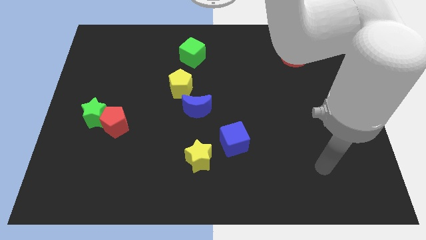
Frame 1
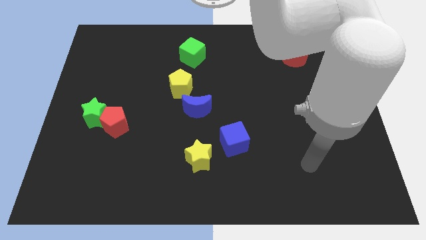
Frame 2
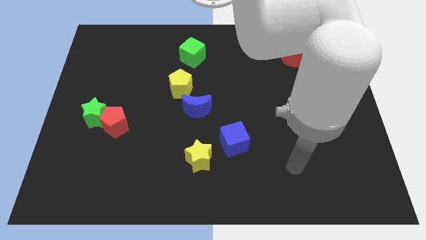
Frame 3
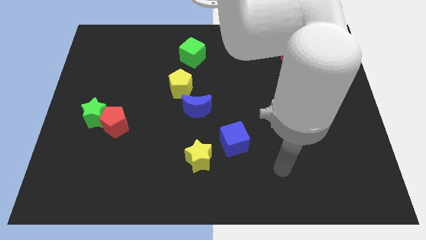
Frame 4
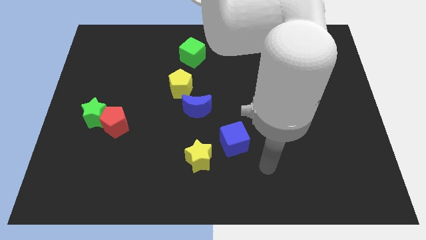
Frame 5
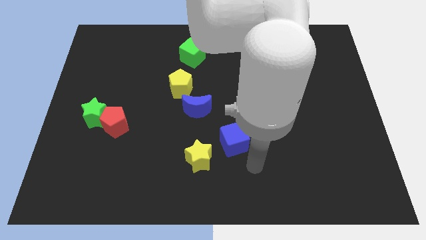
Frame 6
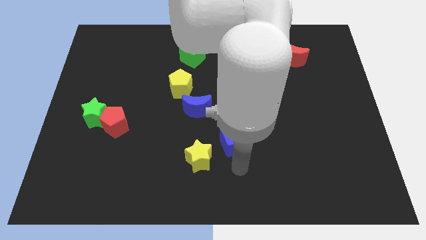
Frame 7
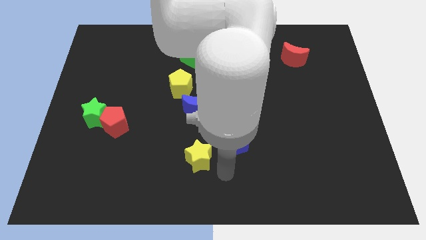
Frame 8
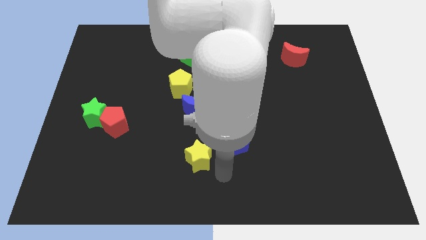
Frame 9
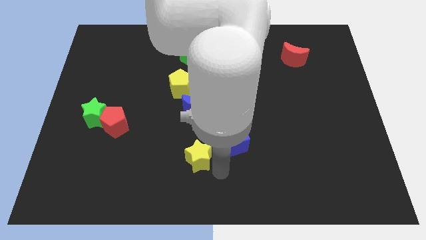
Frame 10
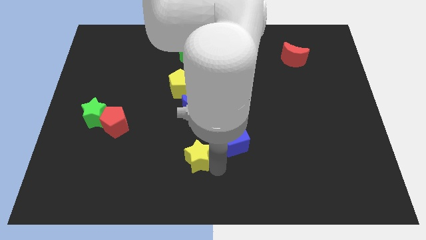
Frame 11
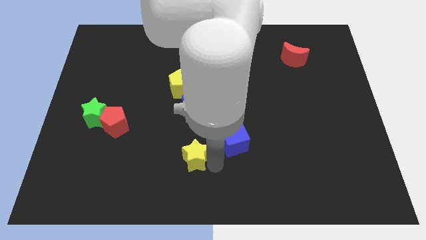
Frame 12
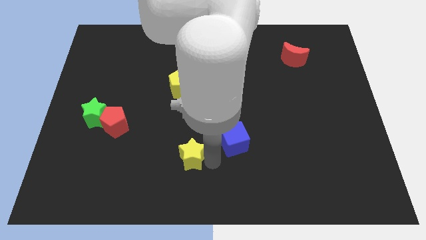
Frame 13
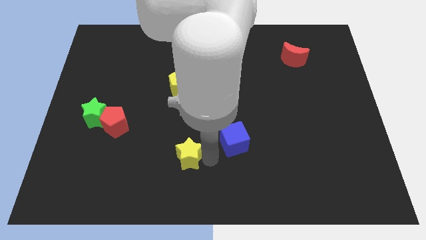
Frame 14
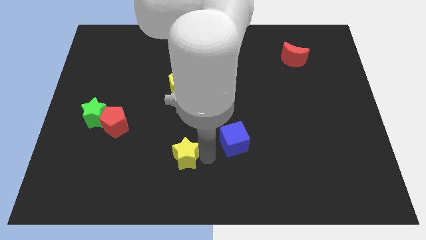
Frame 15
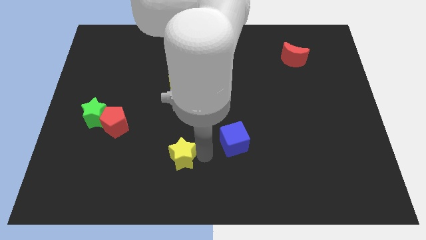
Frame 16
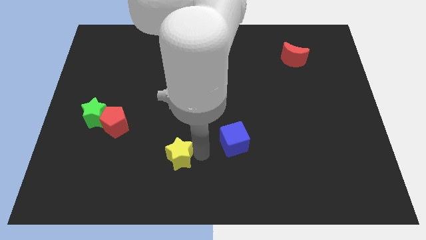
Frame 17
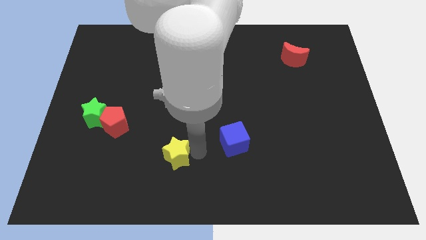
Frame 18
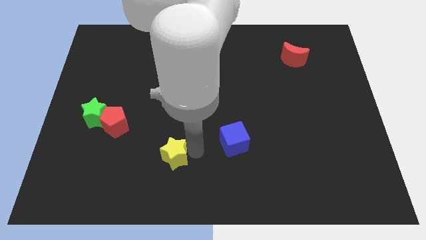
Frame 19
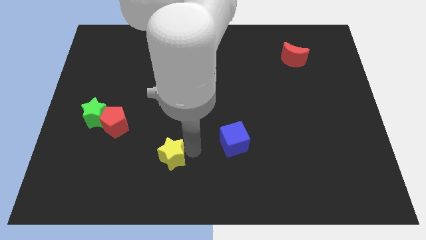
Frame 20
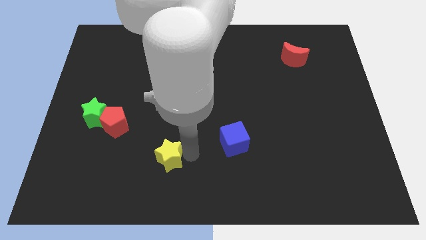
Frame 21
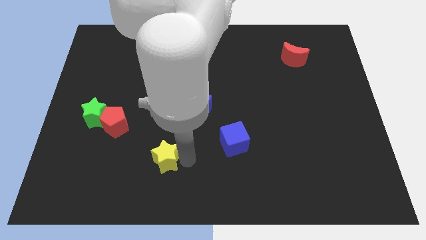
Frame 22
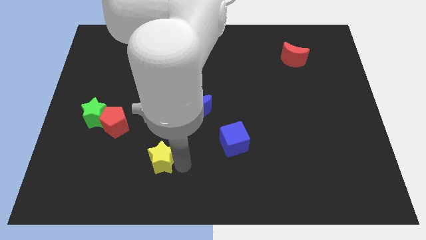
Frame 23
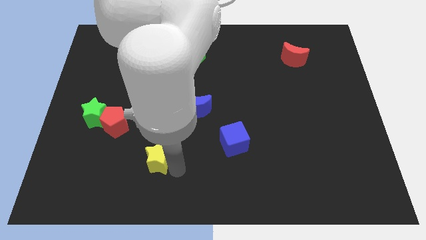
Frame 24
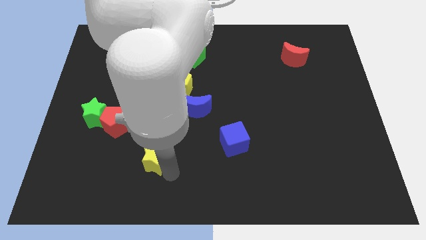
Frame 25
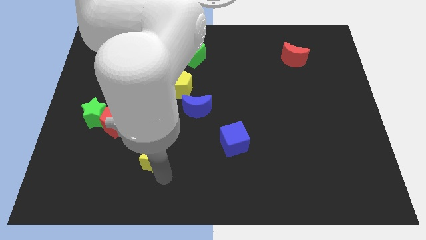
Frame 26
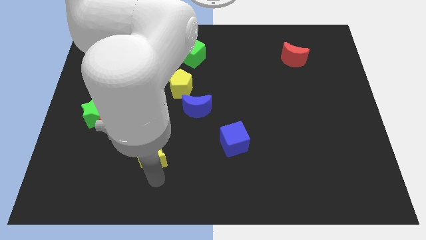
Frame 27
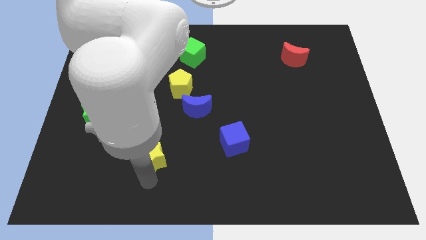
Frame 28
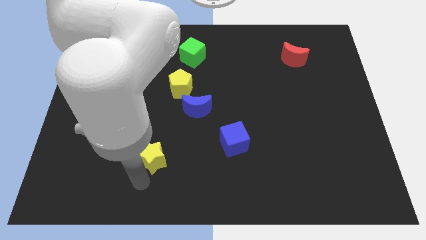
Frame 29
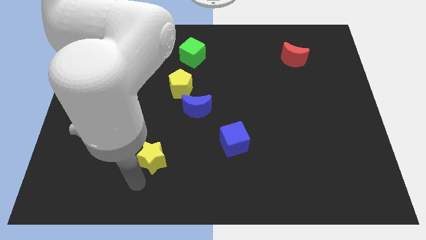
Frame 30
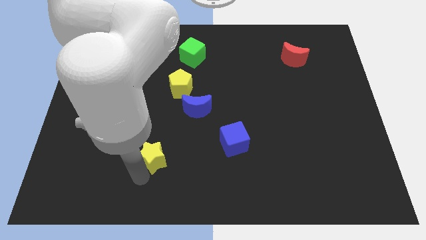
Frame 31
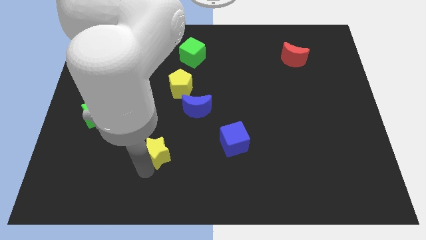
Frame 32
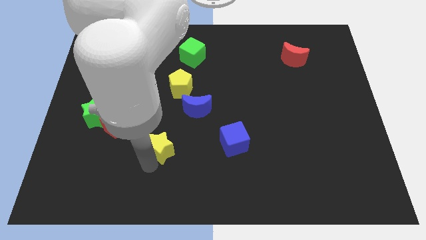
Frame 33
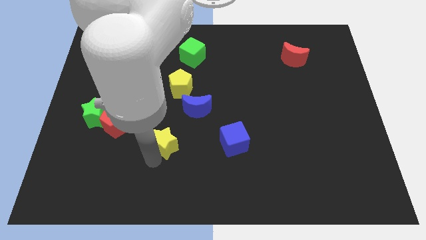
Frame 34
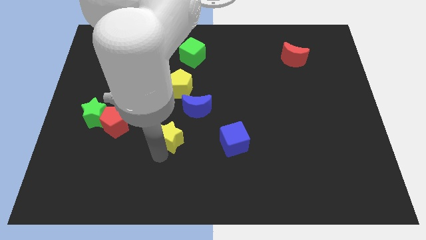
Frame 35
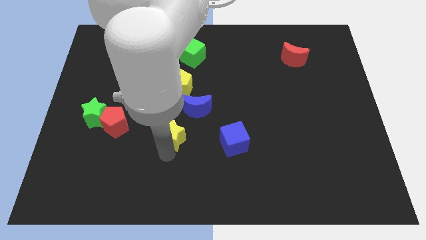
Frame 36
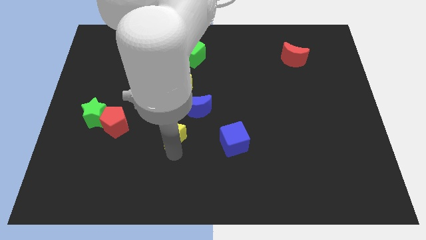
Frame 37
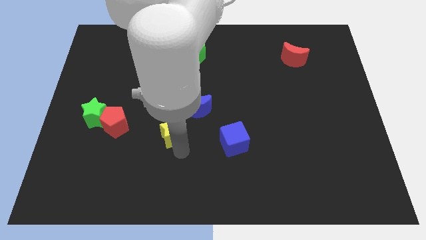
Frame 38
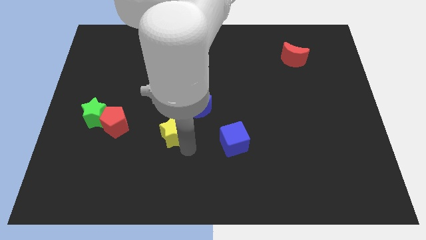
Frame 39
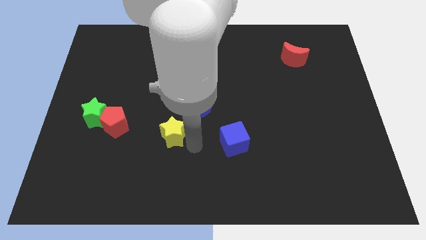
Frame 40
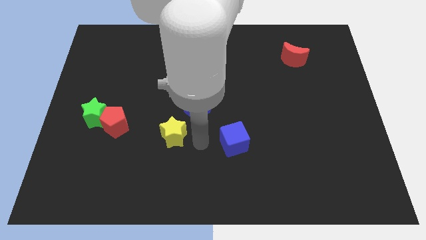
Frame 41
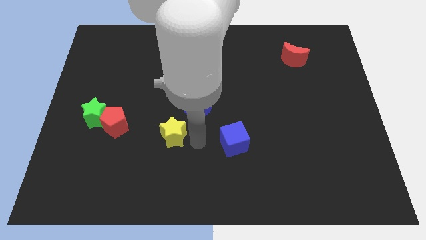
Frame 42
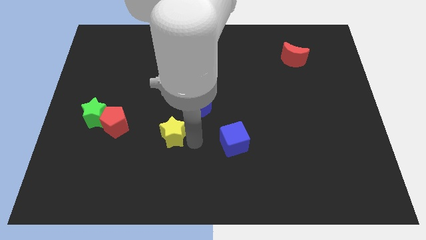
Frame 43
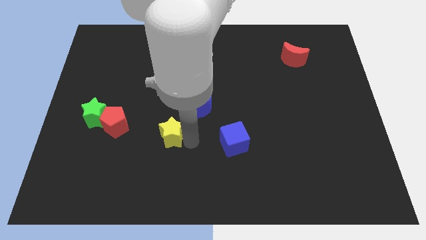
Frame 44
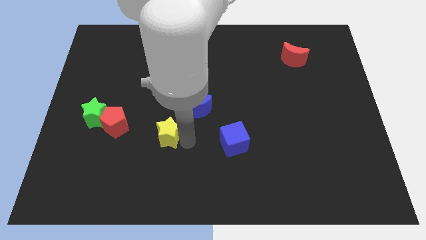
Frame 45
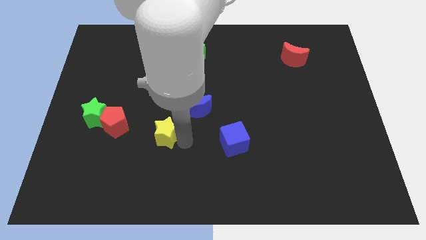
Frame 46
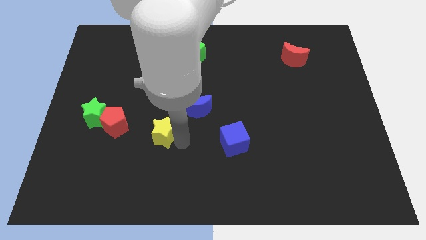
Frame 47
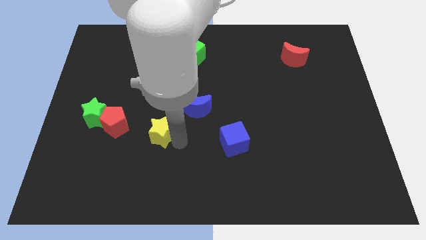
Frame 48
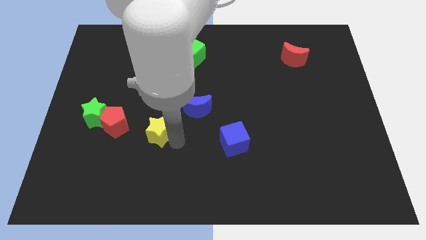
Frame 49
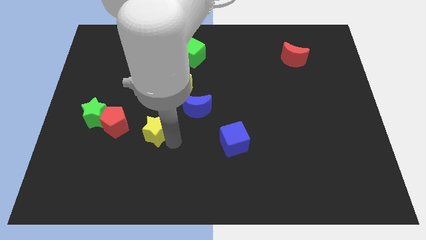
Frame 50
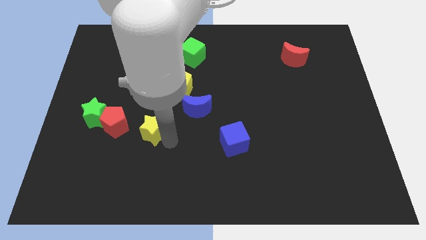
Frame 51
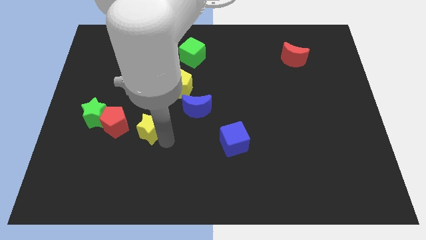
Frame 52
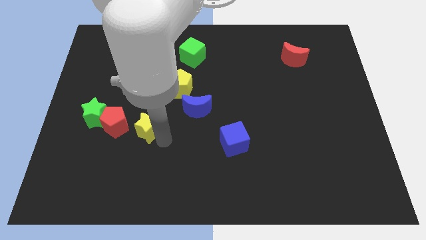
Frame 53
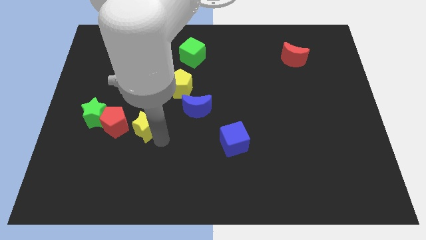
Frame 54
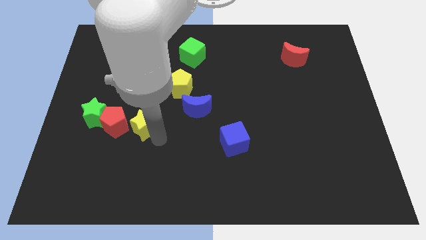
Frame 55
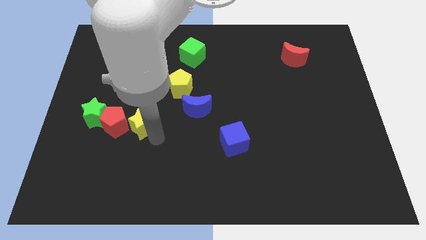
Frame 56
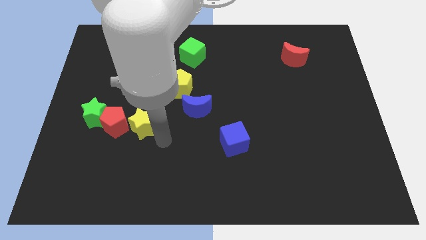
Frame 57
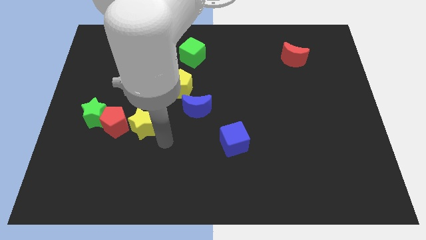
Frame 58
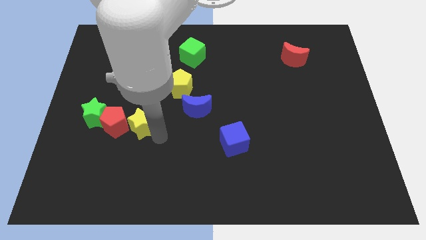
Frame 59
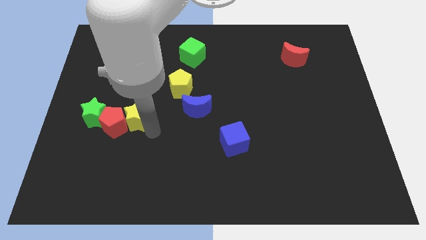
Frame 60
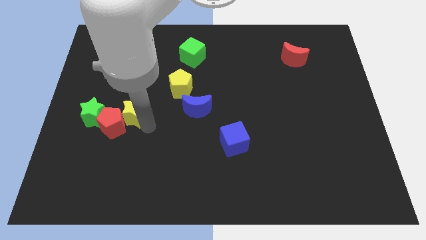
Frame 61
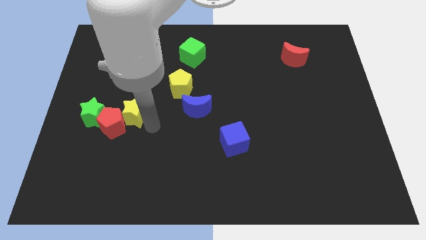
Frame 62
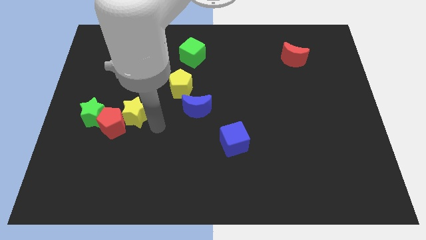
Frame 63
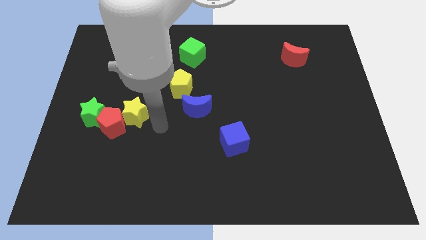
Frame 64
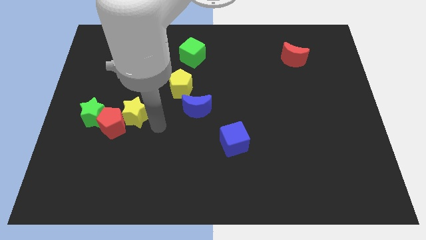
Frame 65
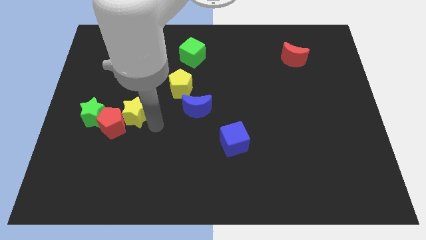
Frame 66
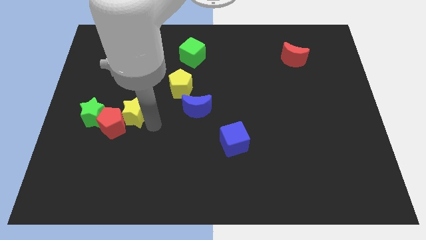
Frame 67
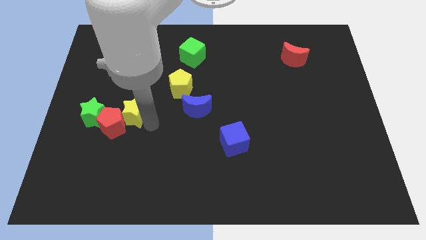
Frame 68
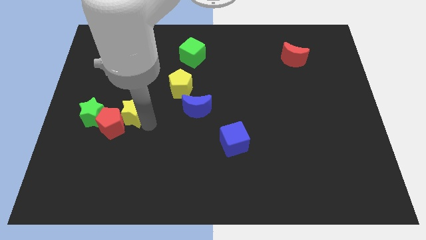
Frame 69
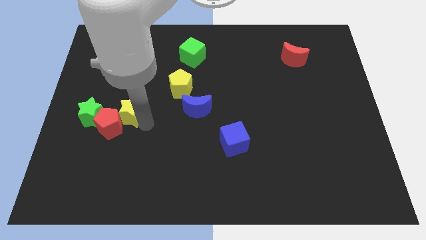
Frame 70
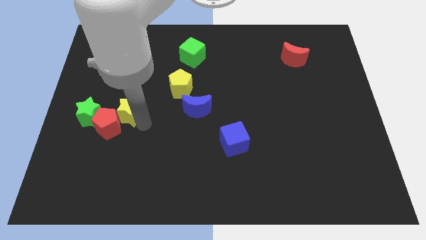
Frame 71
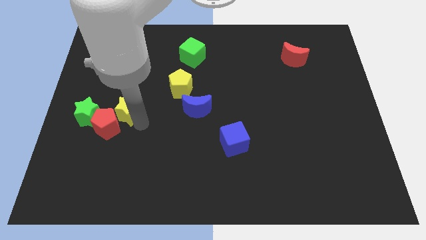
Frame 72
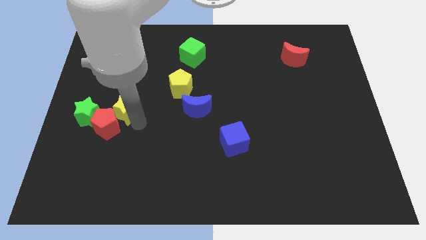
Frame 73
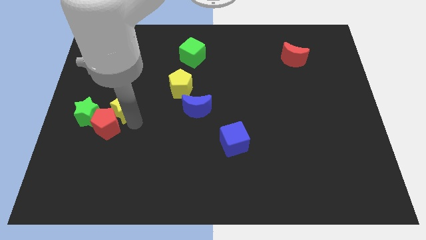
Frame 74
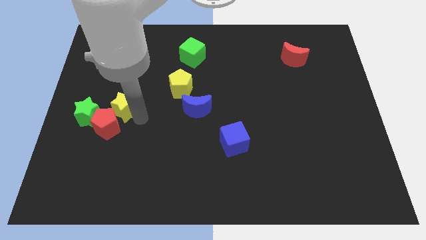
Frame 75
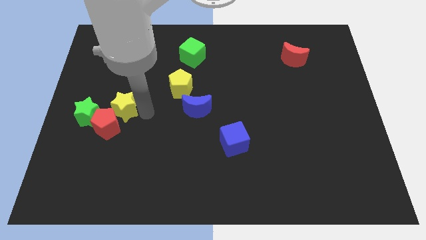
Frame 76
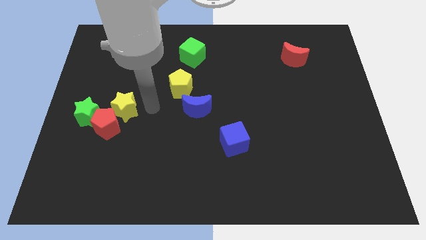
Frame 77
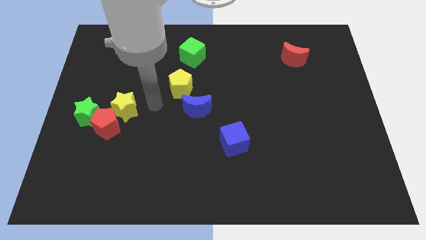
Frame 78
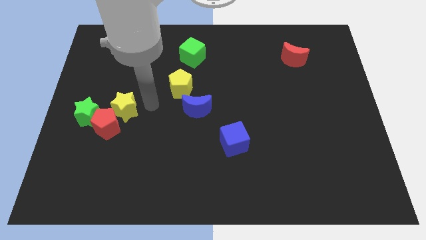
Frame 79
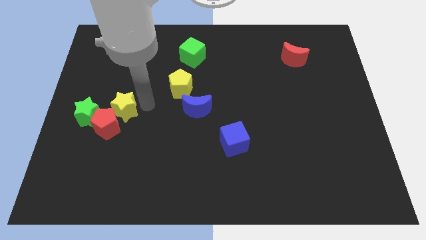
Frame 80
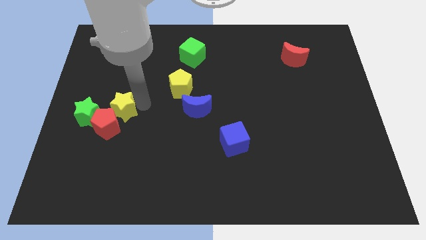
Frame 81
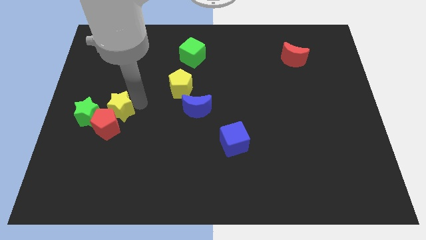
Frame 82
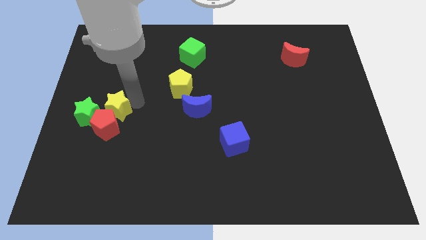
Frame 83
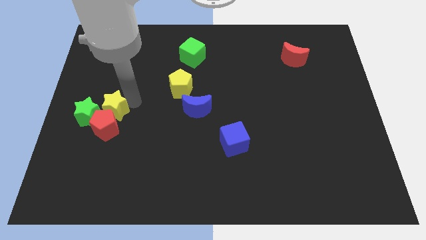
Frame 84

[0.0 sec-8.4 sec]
move the yellow star towards the green star
